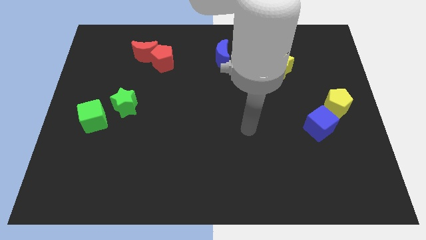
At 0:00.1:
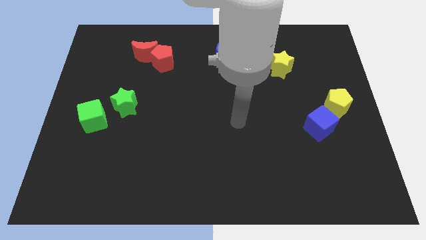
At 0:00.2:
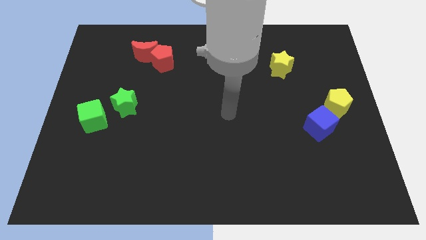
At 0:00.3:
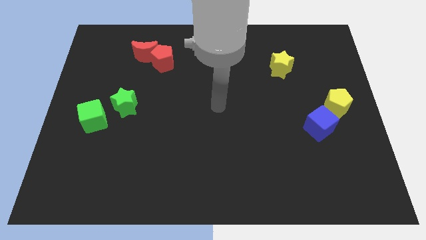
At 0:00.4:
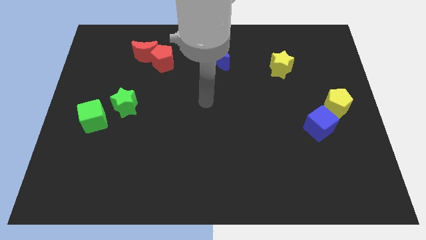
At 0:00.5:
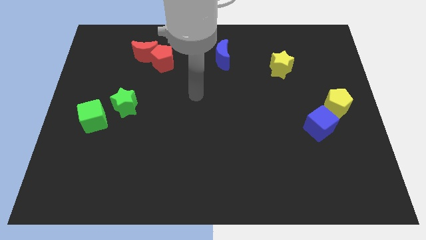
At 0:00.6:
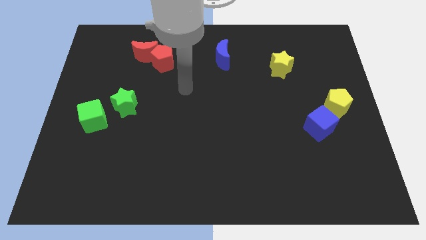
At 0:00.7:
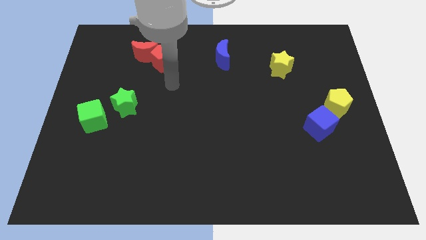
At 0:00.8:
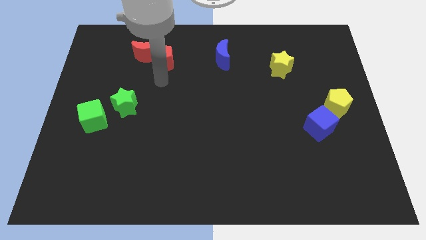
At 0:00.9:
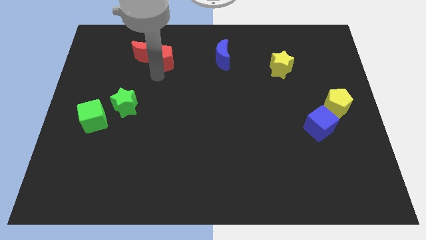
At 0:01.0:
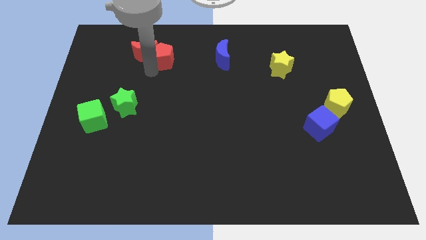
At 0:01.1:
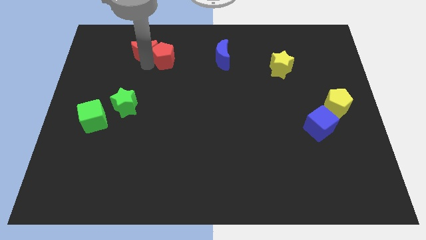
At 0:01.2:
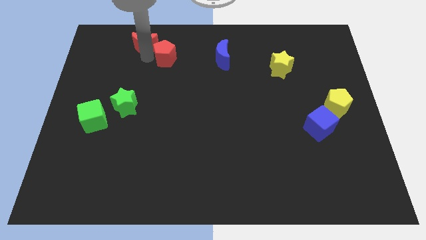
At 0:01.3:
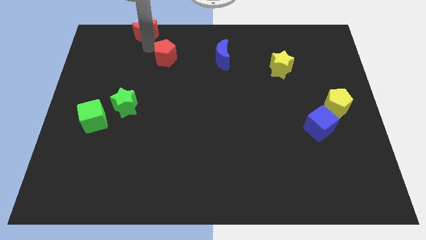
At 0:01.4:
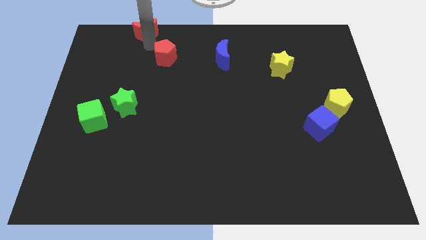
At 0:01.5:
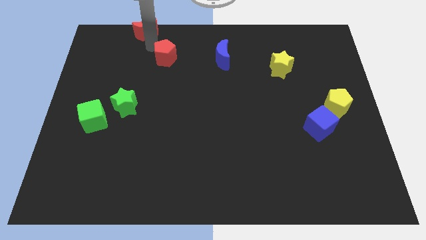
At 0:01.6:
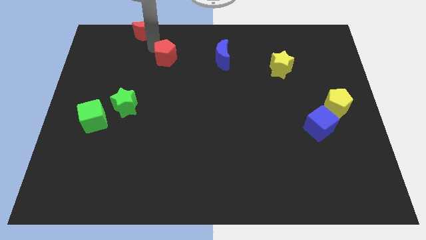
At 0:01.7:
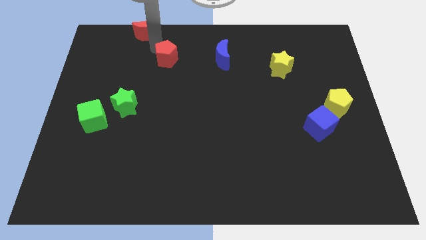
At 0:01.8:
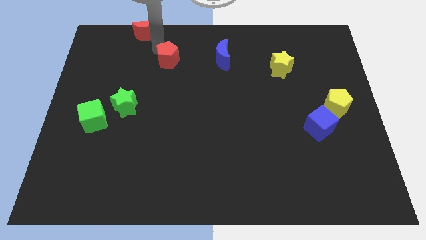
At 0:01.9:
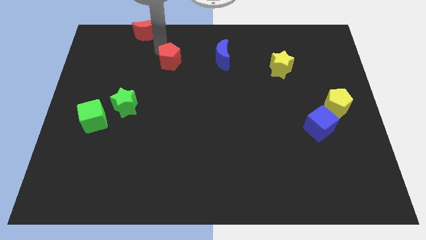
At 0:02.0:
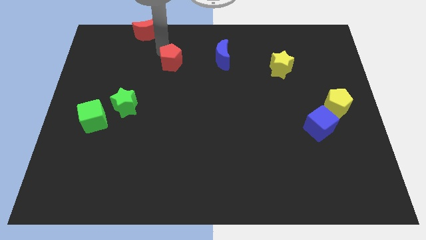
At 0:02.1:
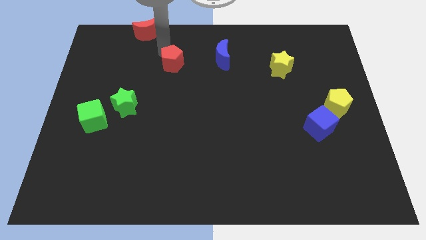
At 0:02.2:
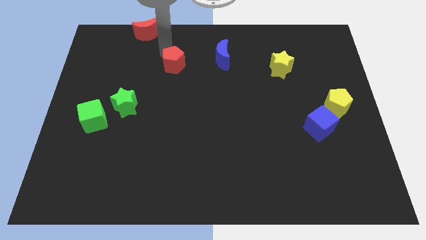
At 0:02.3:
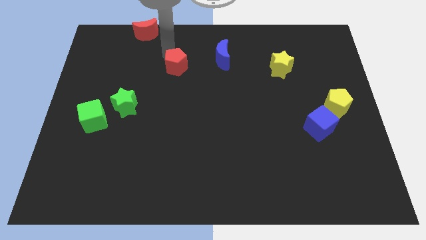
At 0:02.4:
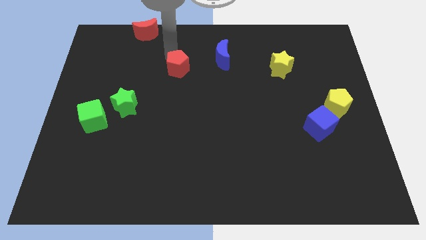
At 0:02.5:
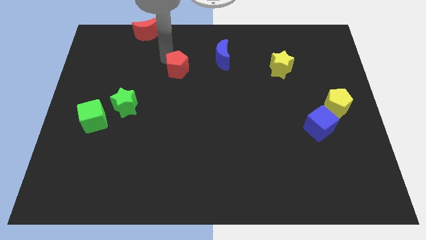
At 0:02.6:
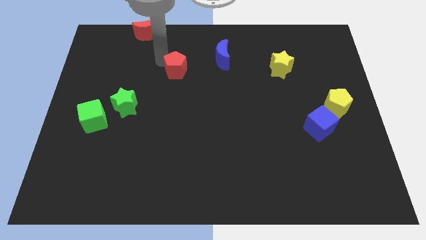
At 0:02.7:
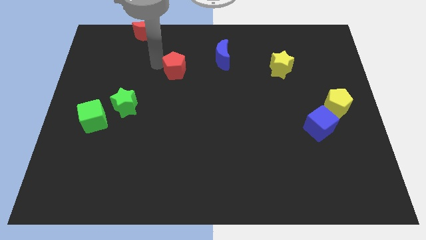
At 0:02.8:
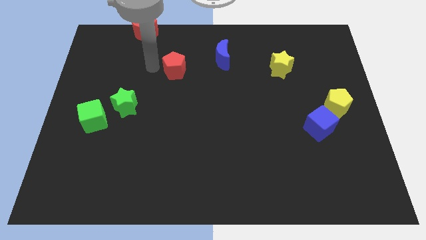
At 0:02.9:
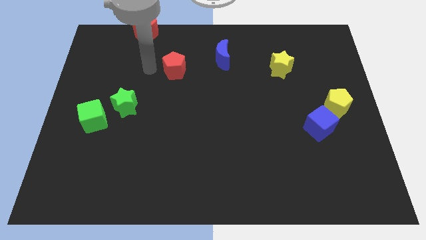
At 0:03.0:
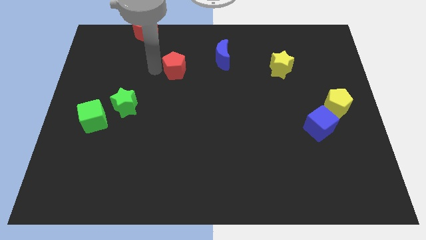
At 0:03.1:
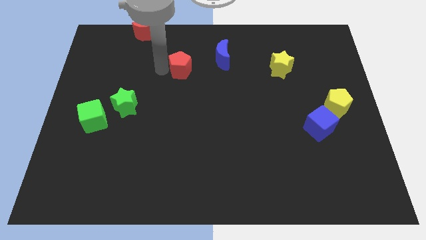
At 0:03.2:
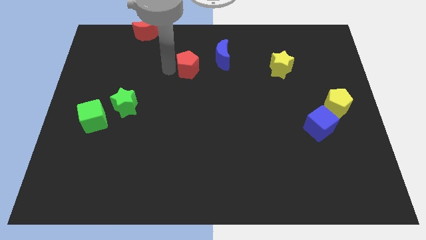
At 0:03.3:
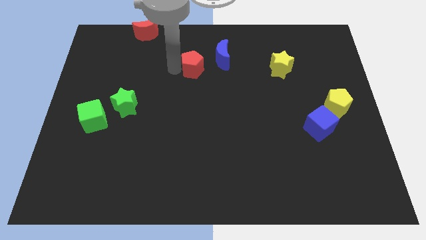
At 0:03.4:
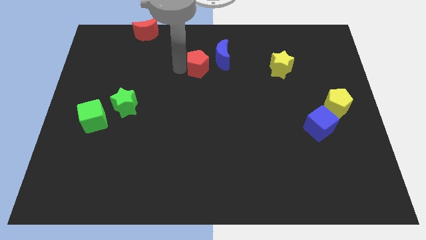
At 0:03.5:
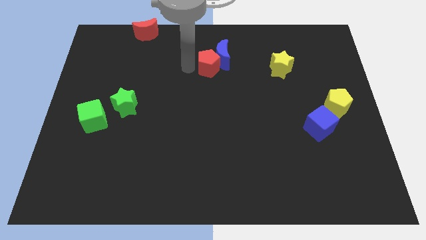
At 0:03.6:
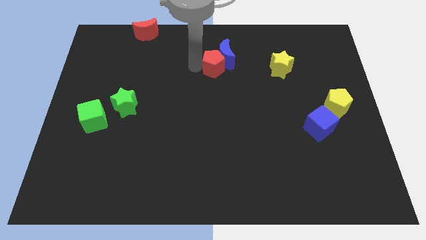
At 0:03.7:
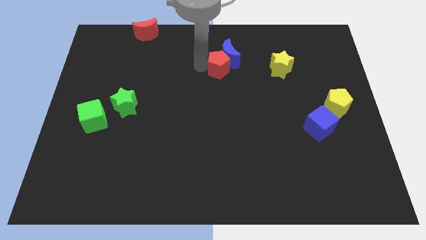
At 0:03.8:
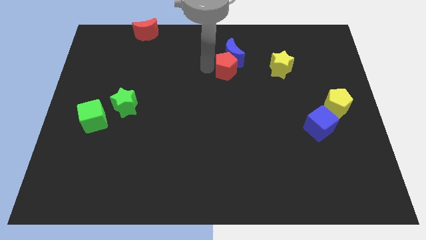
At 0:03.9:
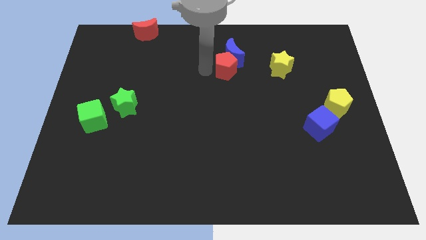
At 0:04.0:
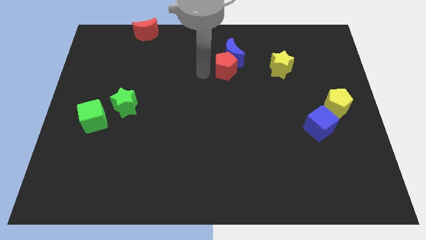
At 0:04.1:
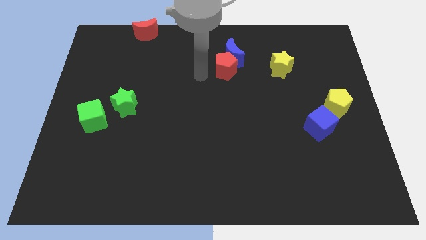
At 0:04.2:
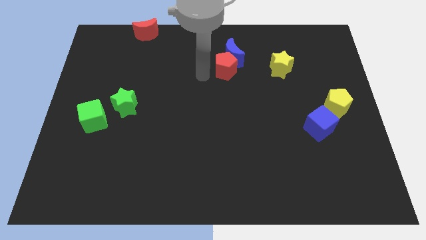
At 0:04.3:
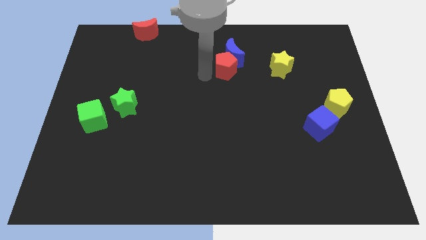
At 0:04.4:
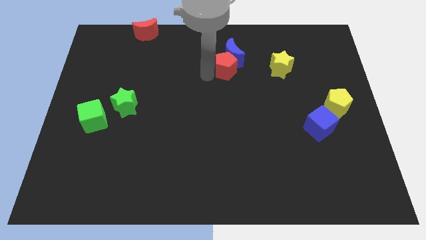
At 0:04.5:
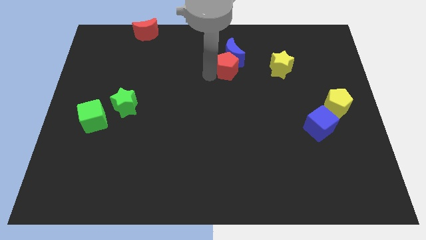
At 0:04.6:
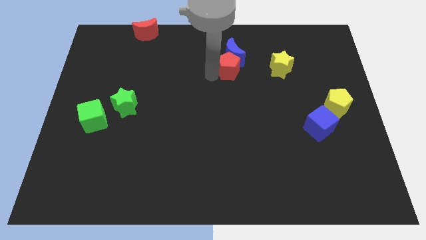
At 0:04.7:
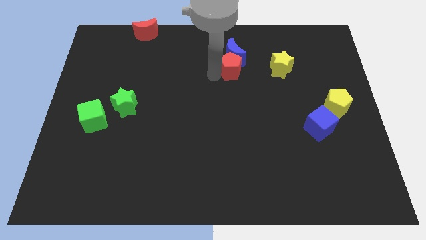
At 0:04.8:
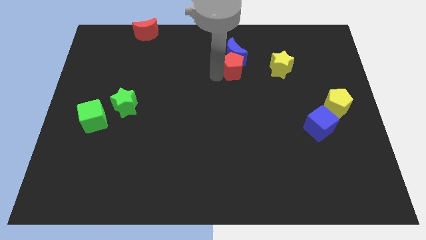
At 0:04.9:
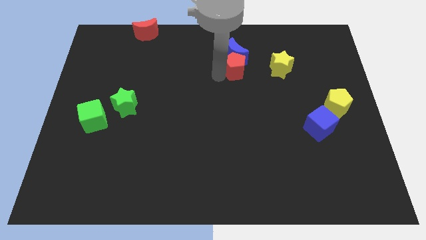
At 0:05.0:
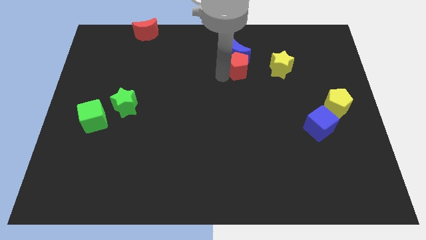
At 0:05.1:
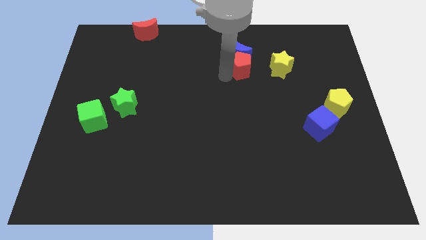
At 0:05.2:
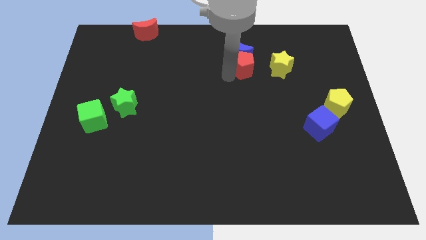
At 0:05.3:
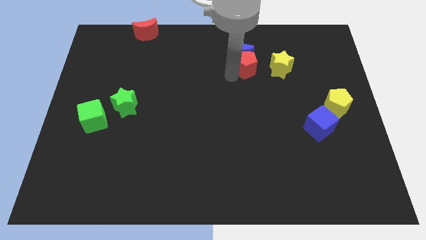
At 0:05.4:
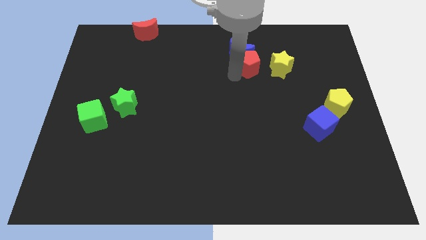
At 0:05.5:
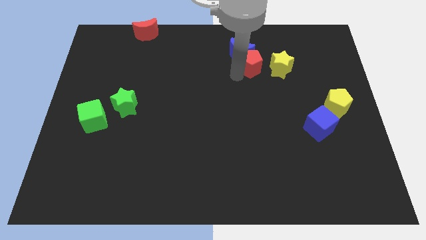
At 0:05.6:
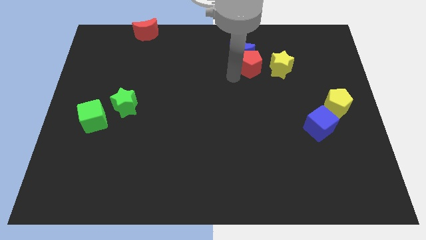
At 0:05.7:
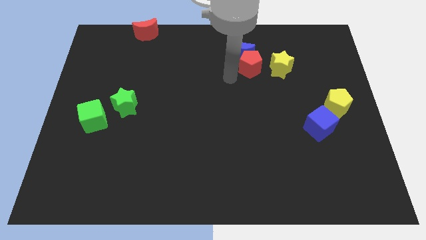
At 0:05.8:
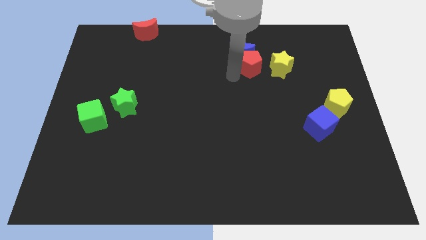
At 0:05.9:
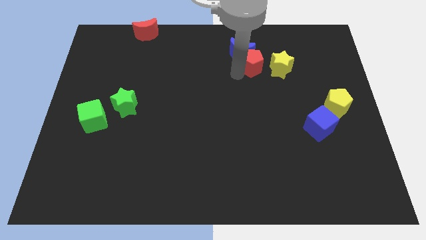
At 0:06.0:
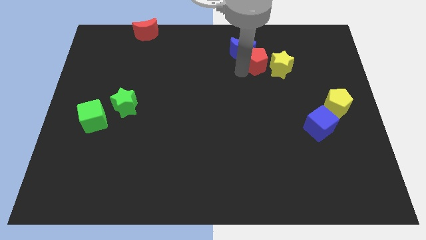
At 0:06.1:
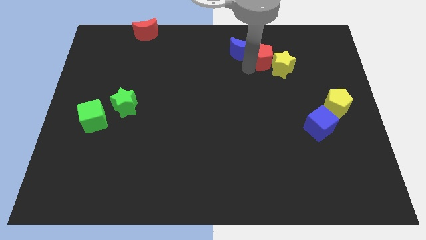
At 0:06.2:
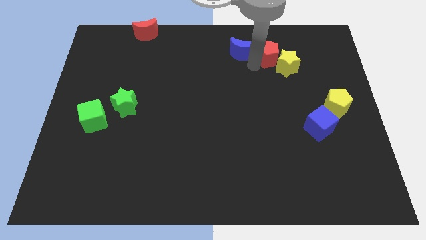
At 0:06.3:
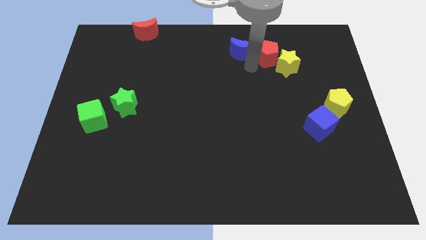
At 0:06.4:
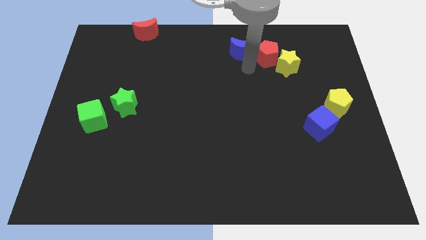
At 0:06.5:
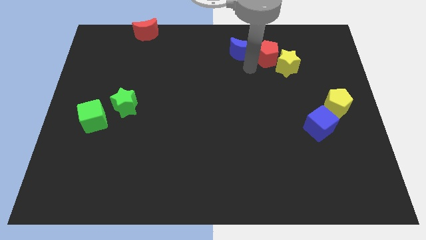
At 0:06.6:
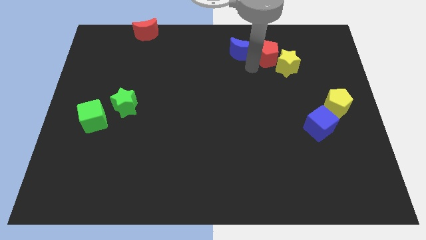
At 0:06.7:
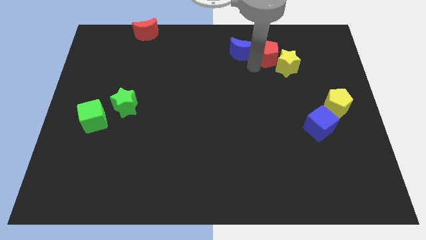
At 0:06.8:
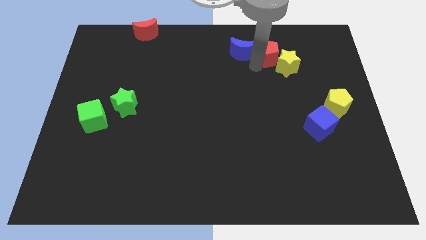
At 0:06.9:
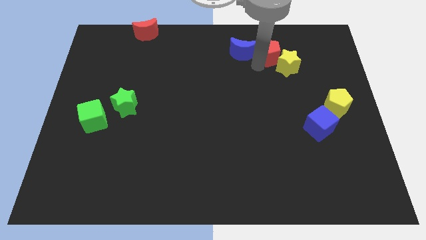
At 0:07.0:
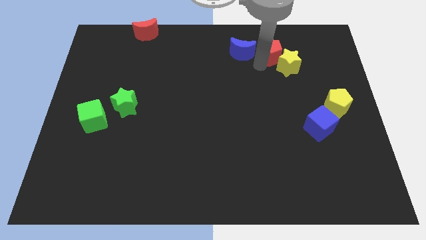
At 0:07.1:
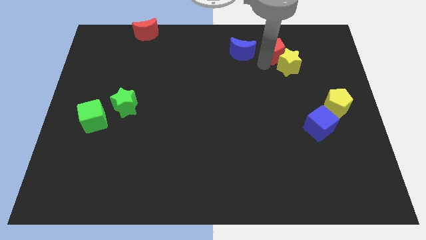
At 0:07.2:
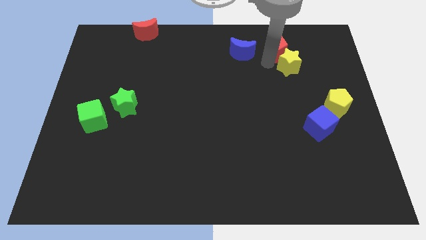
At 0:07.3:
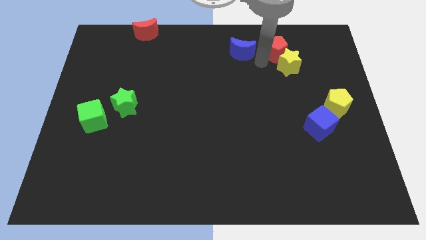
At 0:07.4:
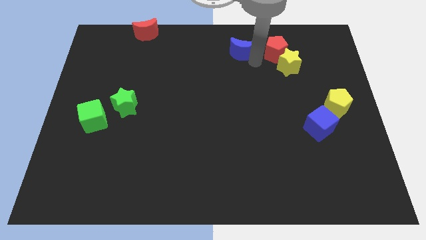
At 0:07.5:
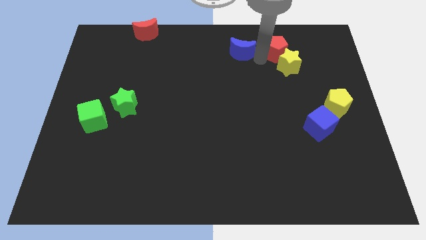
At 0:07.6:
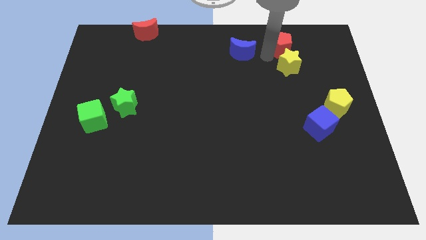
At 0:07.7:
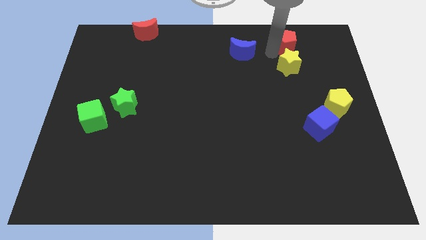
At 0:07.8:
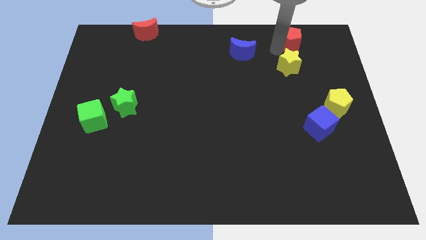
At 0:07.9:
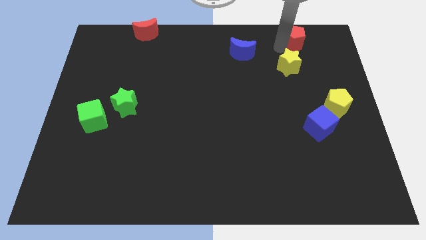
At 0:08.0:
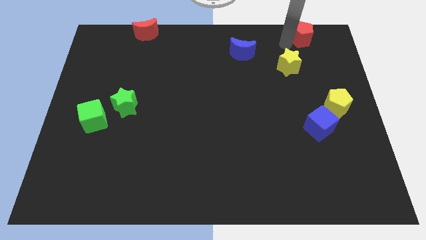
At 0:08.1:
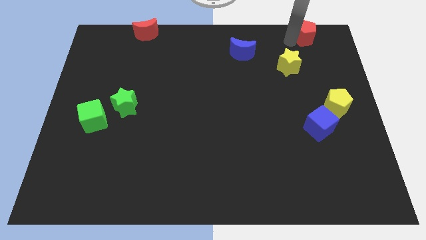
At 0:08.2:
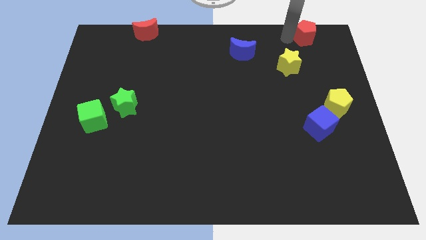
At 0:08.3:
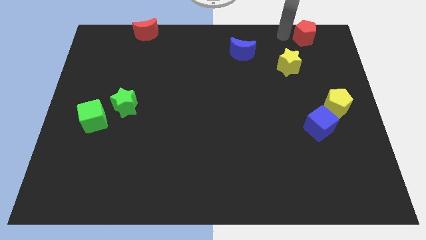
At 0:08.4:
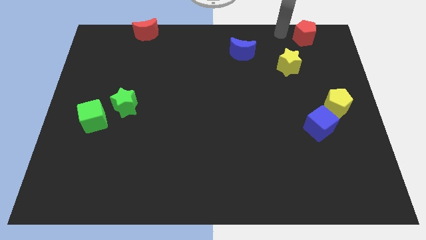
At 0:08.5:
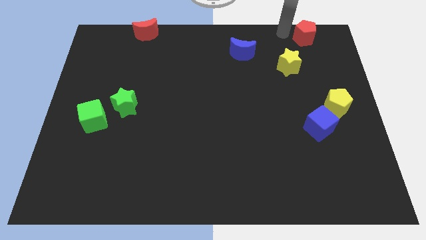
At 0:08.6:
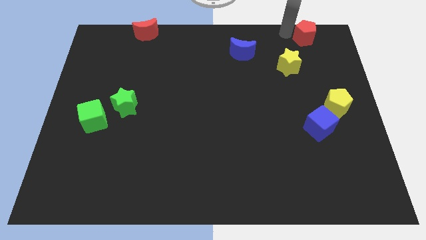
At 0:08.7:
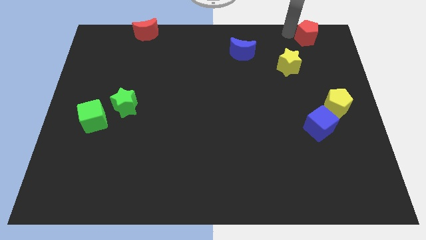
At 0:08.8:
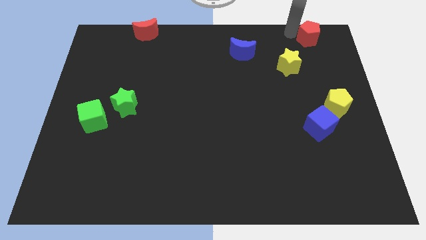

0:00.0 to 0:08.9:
slide the red pentagon to the upper right corner
